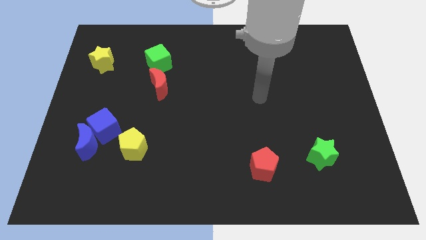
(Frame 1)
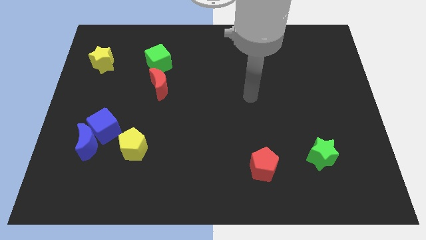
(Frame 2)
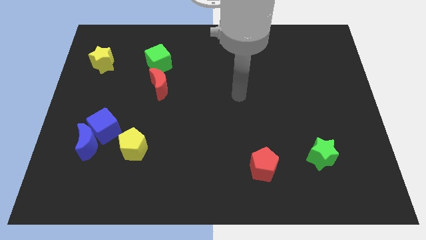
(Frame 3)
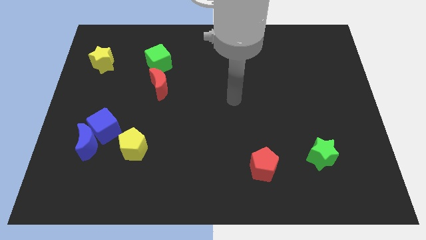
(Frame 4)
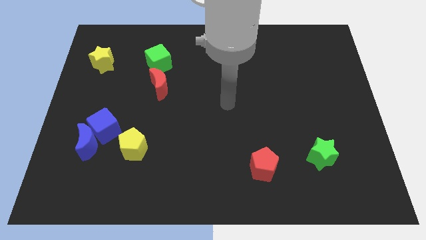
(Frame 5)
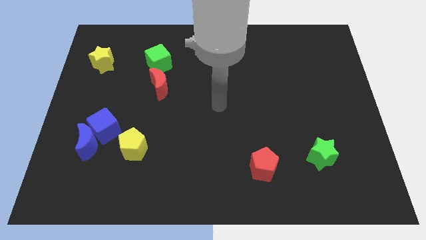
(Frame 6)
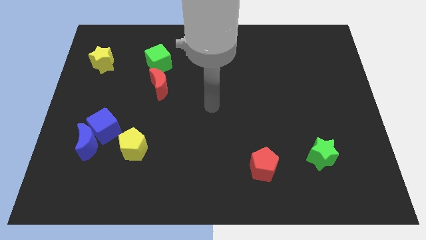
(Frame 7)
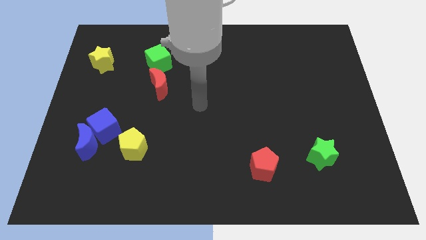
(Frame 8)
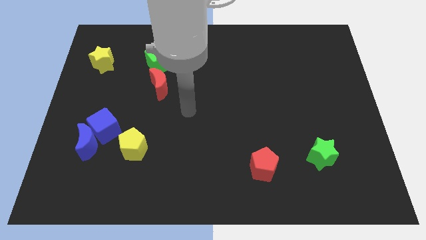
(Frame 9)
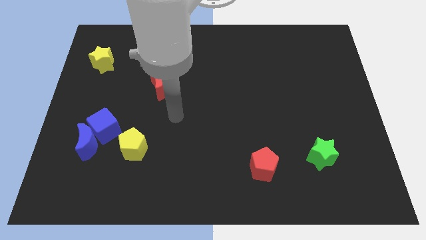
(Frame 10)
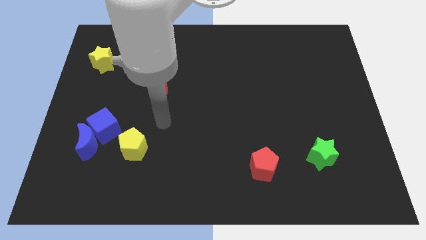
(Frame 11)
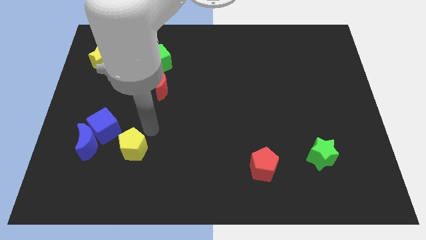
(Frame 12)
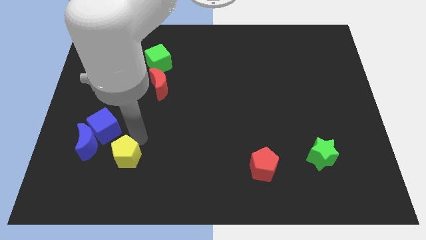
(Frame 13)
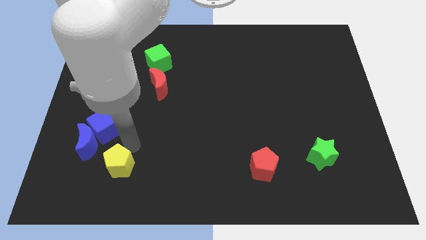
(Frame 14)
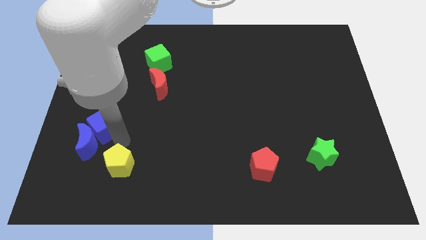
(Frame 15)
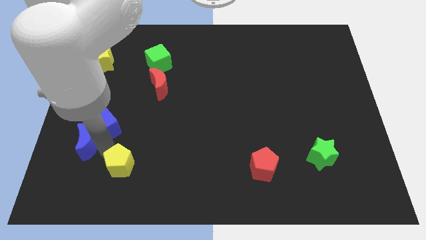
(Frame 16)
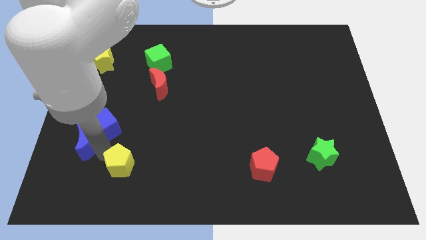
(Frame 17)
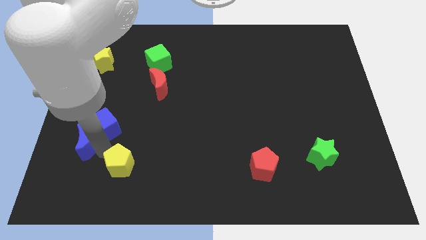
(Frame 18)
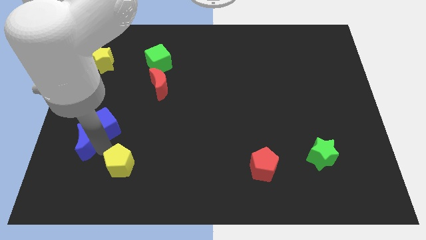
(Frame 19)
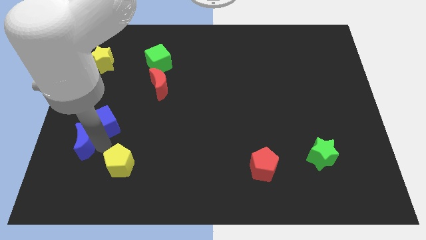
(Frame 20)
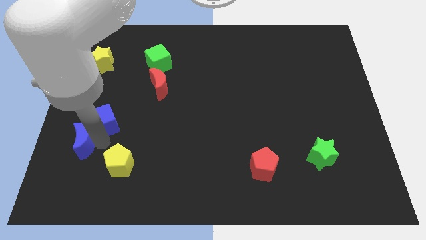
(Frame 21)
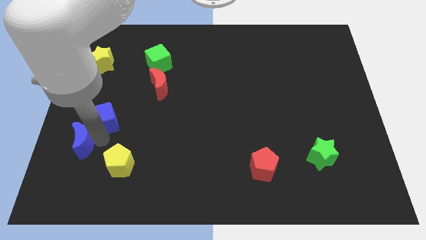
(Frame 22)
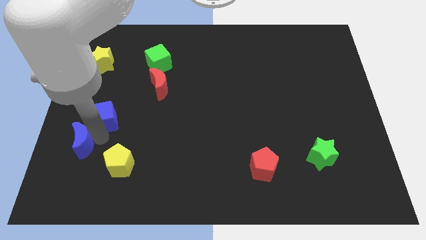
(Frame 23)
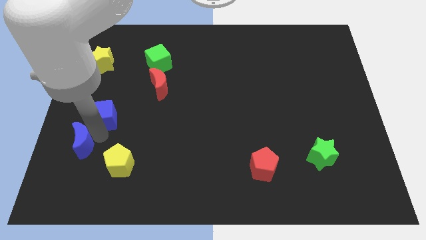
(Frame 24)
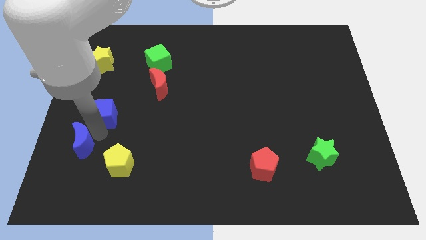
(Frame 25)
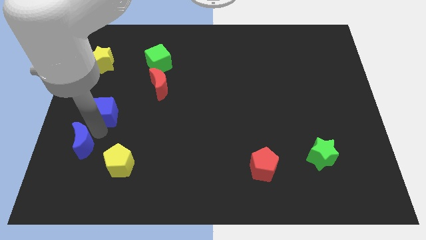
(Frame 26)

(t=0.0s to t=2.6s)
move the blue cube away from the blue moon and yellow pentagon

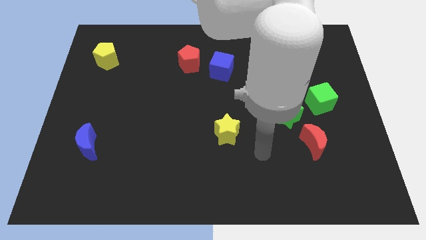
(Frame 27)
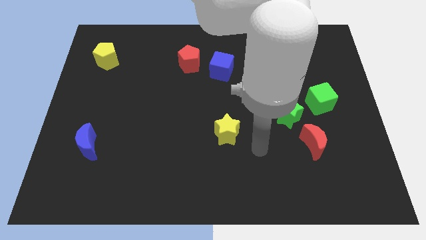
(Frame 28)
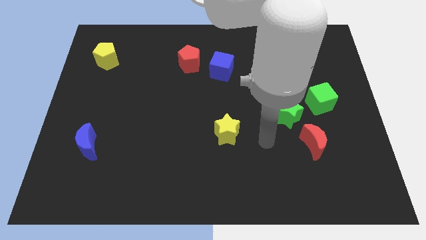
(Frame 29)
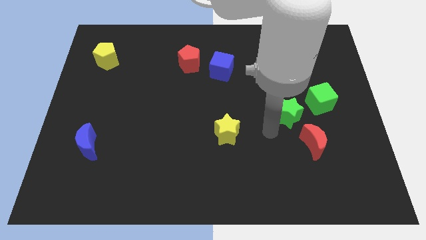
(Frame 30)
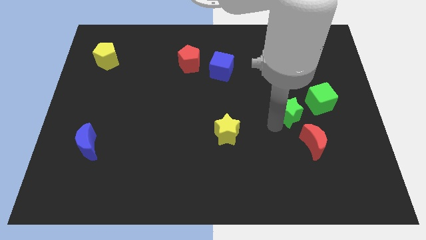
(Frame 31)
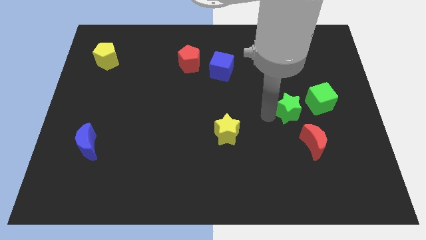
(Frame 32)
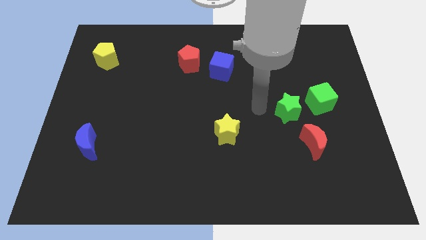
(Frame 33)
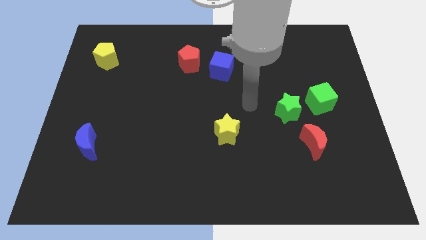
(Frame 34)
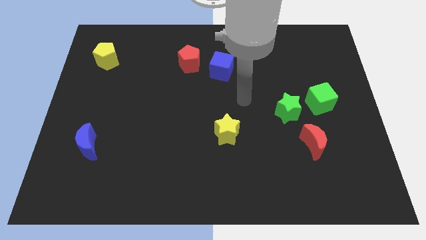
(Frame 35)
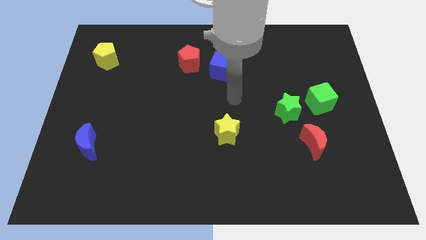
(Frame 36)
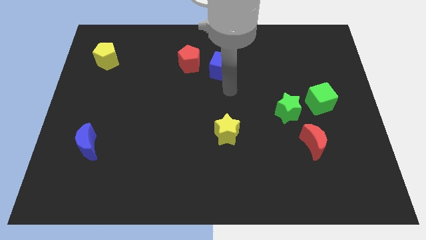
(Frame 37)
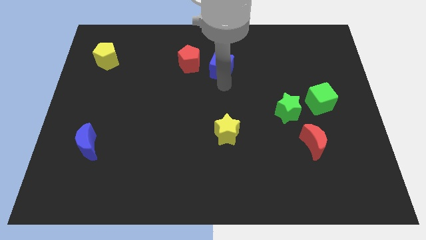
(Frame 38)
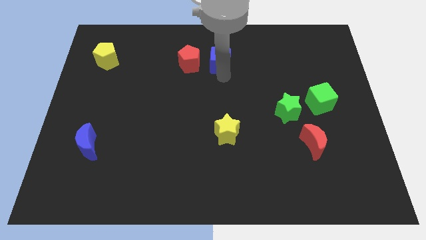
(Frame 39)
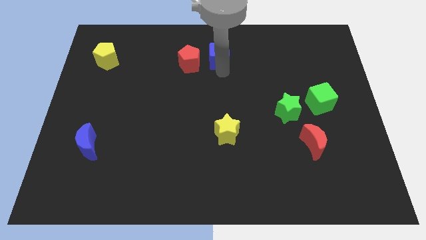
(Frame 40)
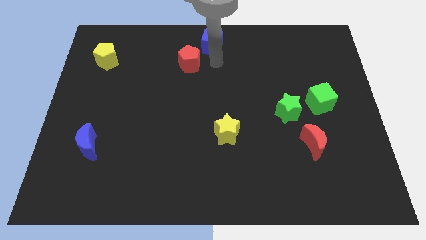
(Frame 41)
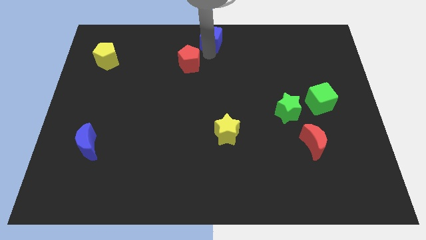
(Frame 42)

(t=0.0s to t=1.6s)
separate the red pentagon from the blue cube

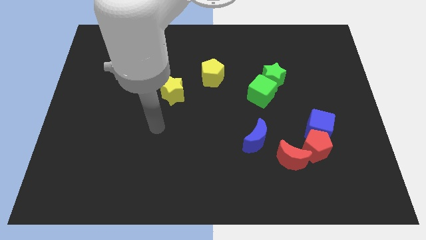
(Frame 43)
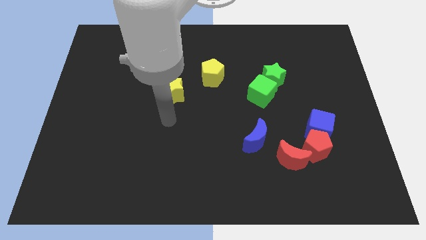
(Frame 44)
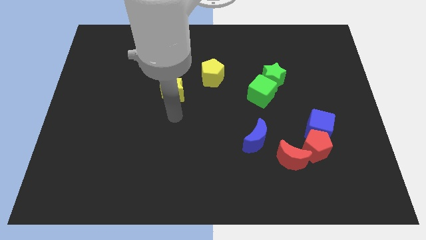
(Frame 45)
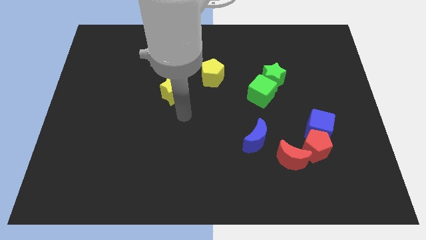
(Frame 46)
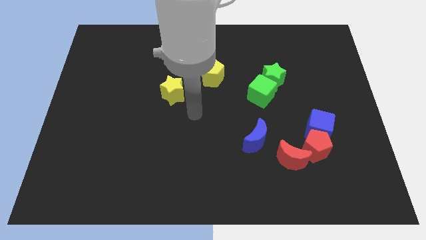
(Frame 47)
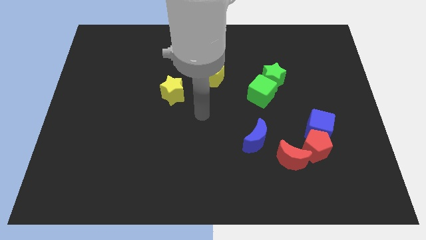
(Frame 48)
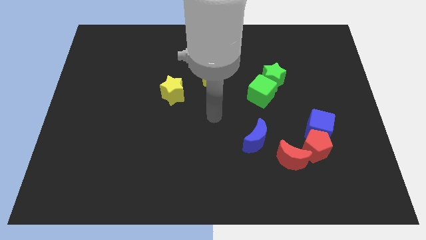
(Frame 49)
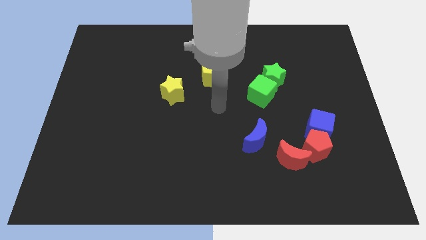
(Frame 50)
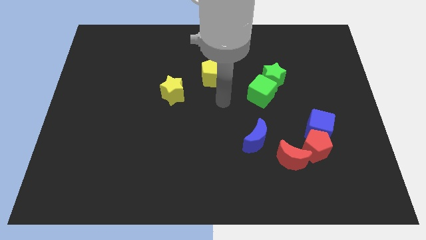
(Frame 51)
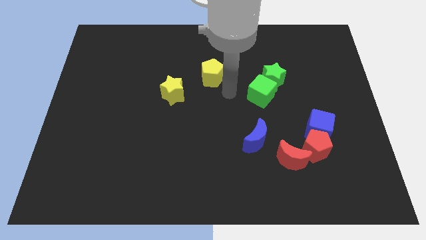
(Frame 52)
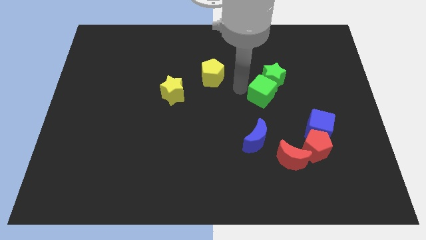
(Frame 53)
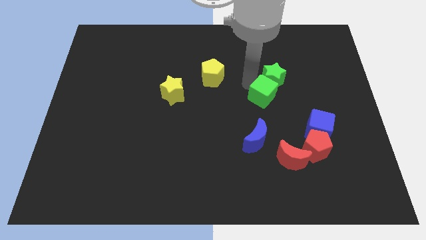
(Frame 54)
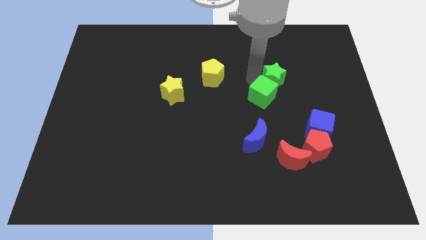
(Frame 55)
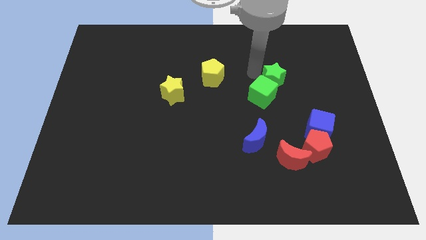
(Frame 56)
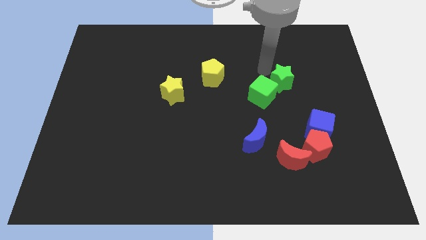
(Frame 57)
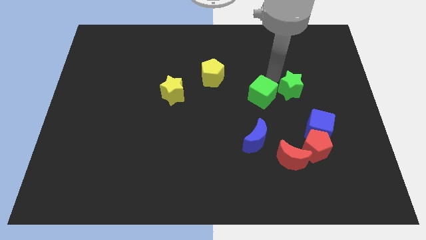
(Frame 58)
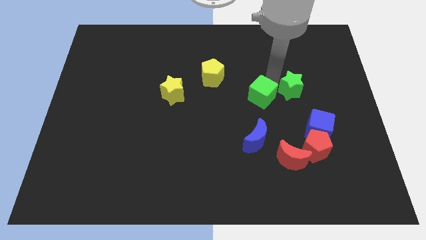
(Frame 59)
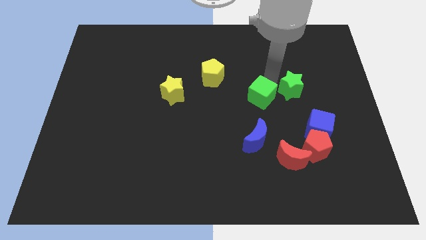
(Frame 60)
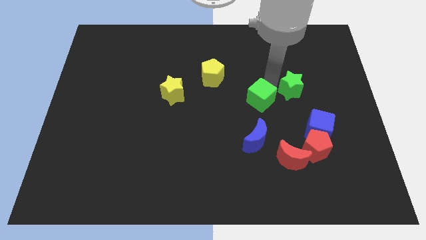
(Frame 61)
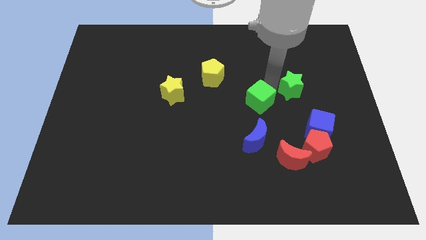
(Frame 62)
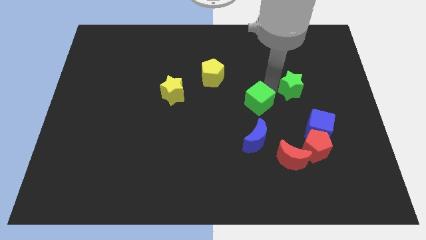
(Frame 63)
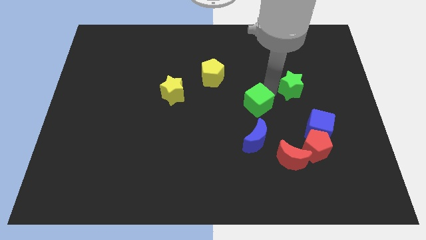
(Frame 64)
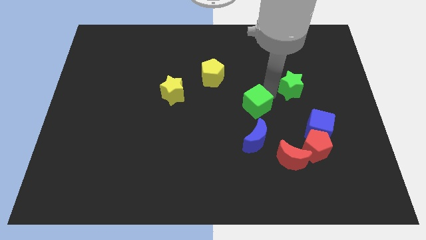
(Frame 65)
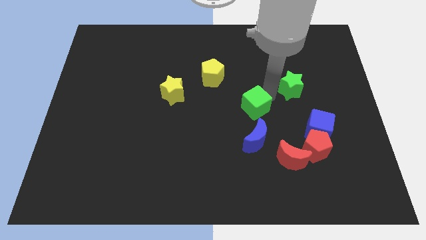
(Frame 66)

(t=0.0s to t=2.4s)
pull the green cube apart from the green star

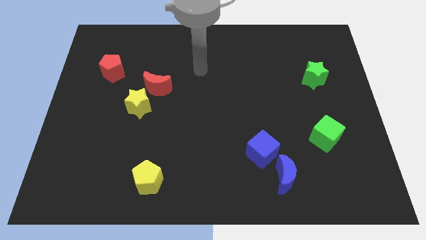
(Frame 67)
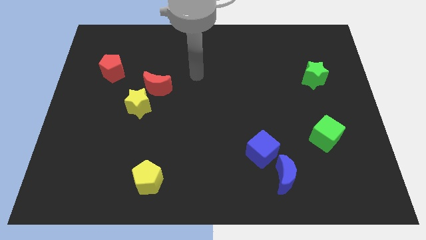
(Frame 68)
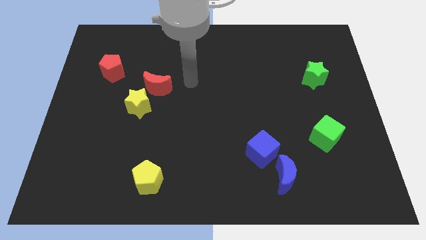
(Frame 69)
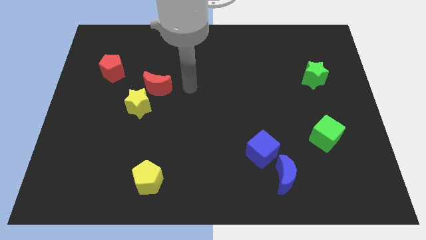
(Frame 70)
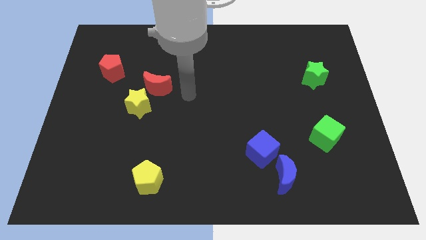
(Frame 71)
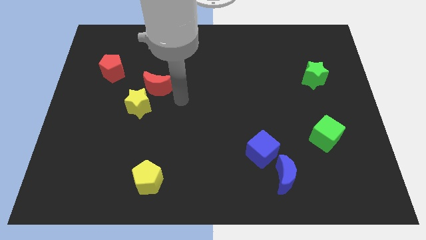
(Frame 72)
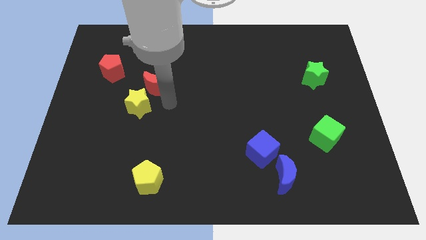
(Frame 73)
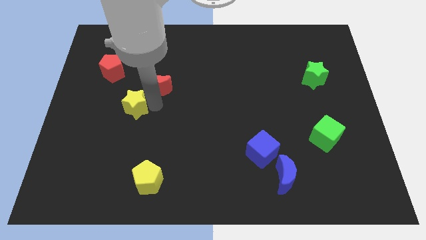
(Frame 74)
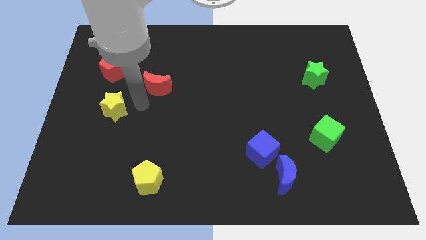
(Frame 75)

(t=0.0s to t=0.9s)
separate the red moon from the yellow star

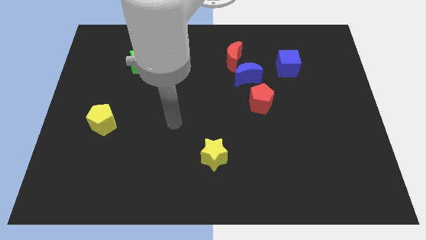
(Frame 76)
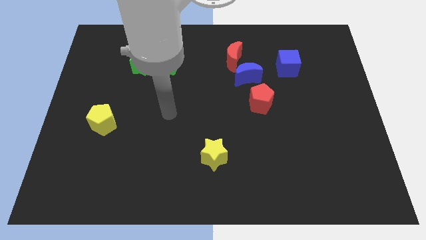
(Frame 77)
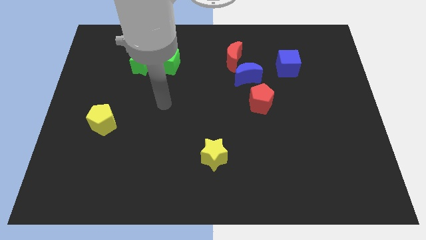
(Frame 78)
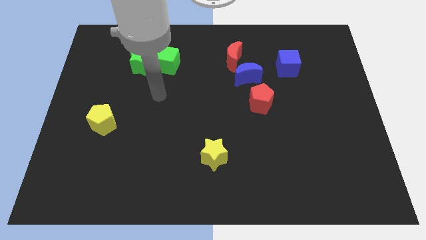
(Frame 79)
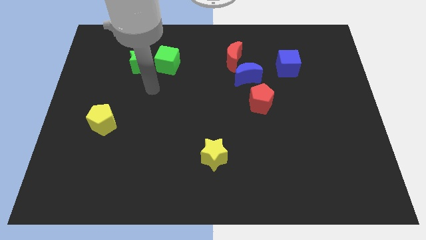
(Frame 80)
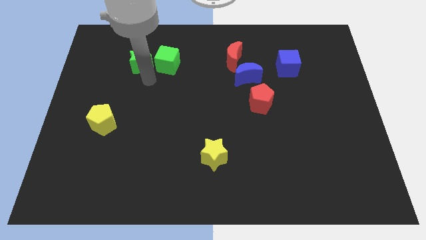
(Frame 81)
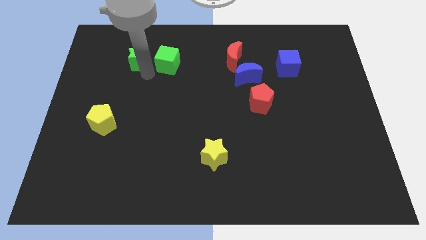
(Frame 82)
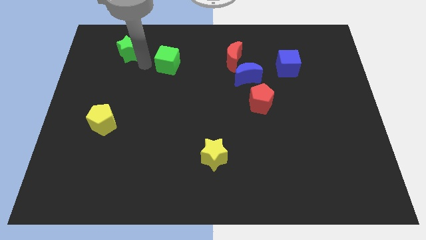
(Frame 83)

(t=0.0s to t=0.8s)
separate the green cube from the green star

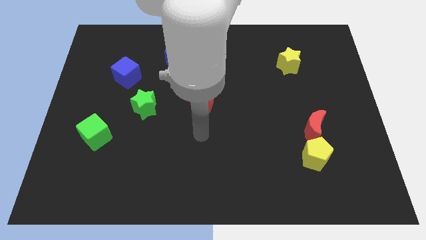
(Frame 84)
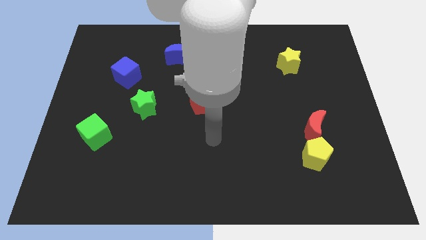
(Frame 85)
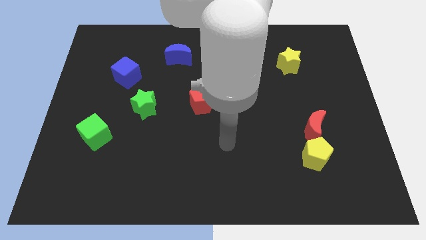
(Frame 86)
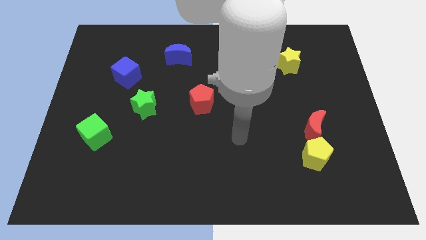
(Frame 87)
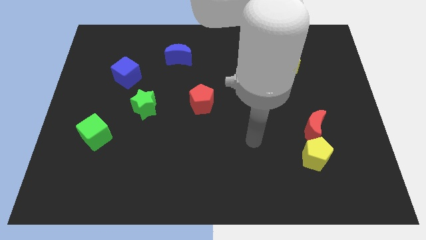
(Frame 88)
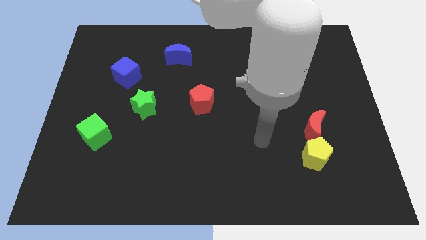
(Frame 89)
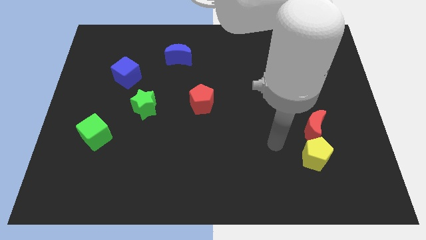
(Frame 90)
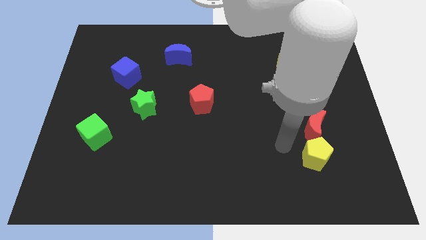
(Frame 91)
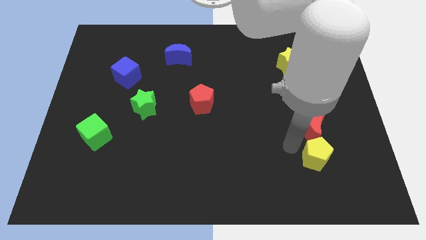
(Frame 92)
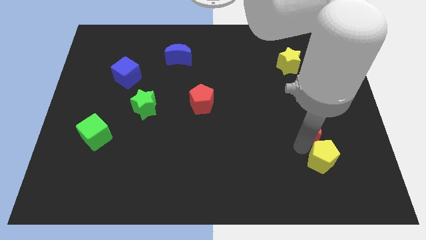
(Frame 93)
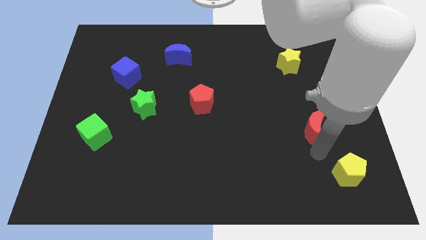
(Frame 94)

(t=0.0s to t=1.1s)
pull the red moon apart from the yellow pentagon
